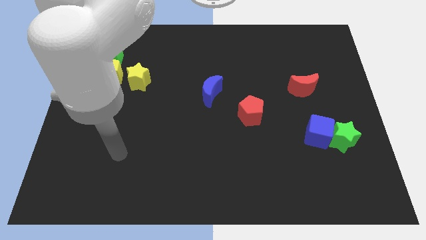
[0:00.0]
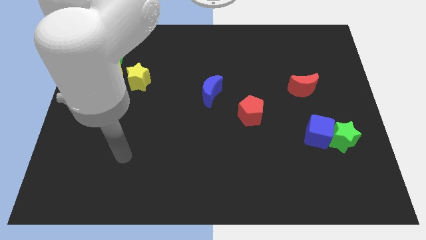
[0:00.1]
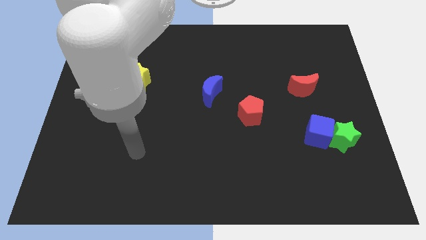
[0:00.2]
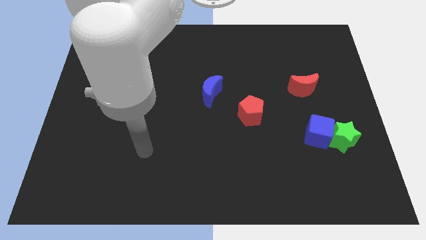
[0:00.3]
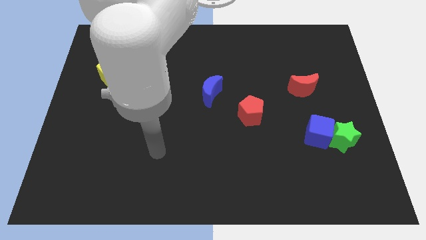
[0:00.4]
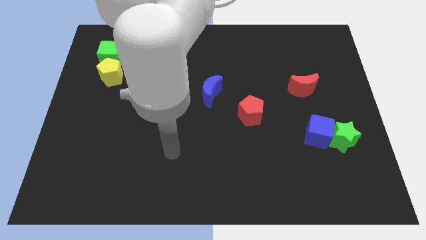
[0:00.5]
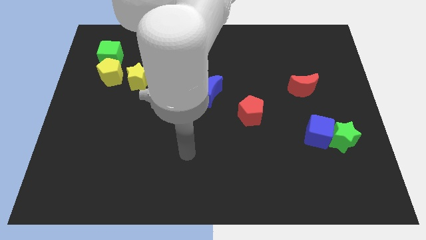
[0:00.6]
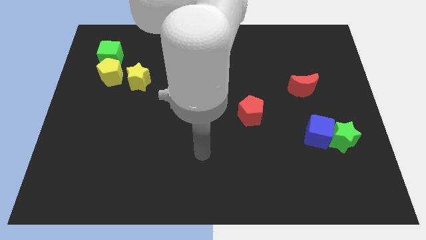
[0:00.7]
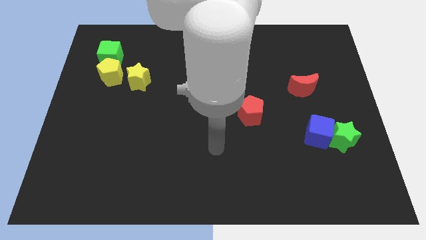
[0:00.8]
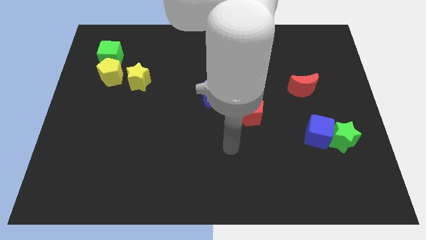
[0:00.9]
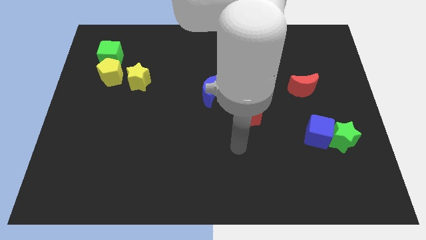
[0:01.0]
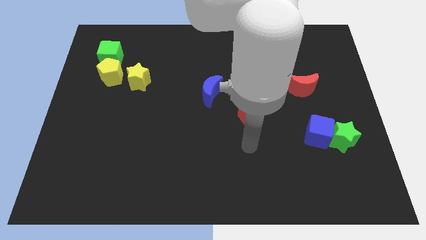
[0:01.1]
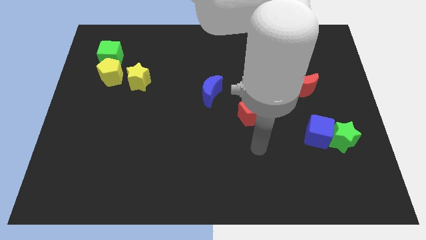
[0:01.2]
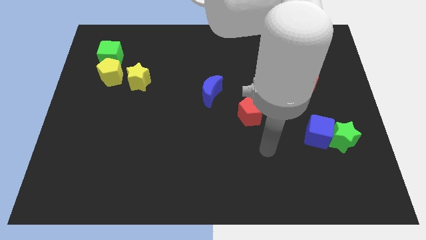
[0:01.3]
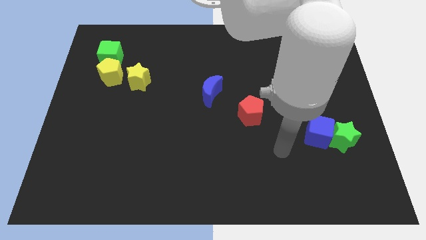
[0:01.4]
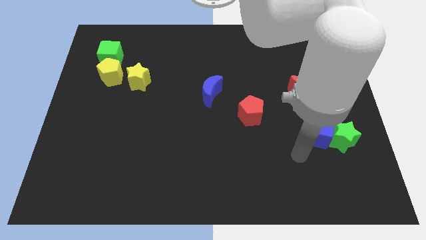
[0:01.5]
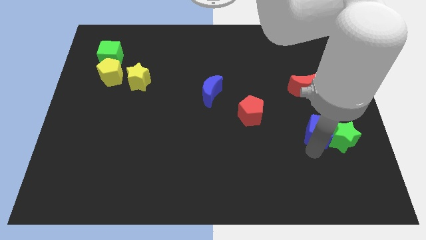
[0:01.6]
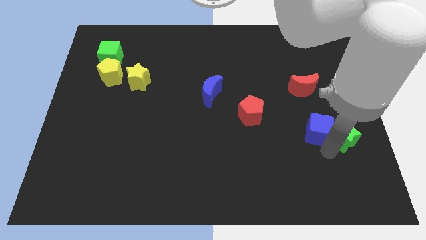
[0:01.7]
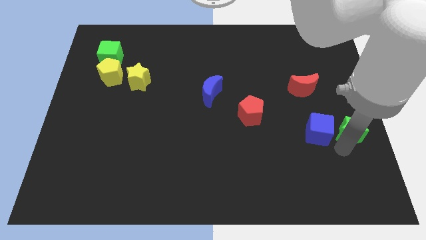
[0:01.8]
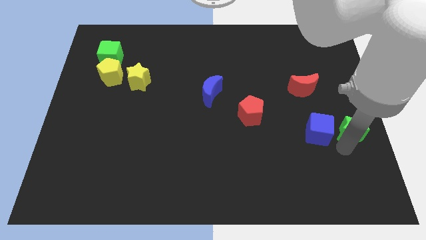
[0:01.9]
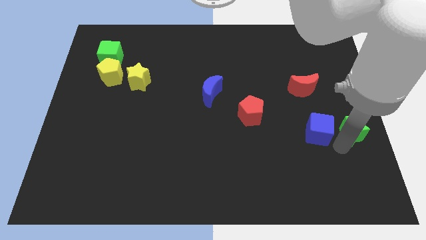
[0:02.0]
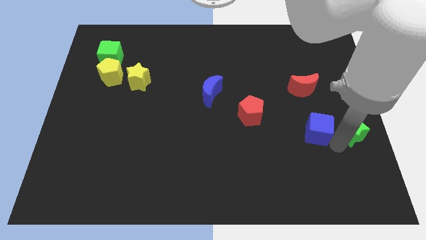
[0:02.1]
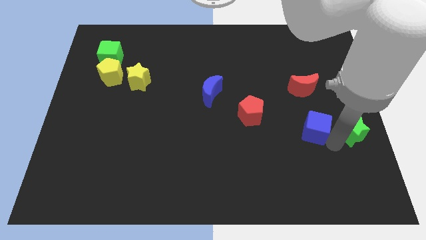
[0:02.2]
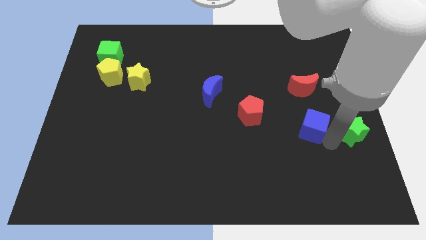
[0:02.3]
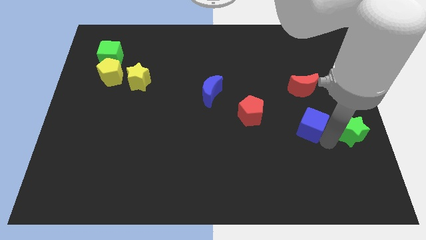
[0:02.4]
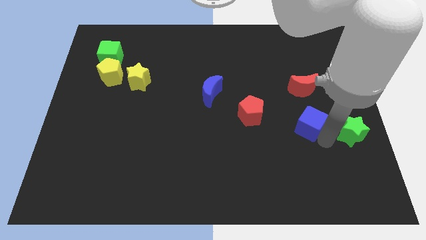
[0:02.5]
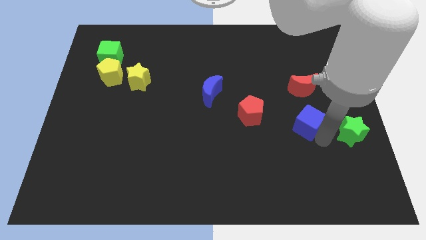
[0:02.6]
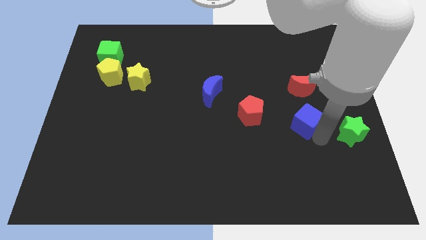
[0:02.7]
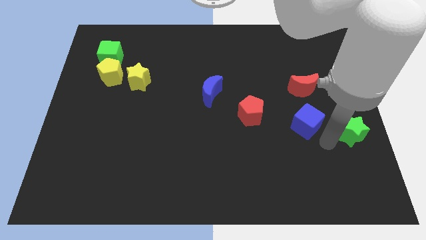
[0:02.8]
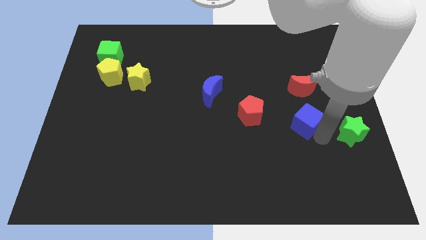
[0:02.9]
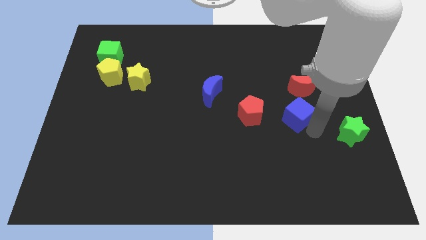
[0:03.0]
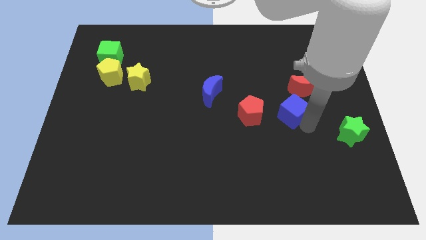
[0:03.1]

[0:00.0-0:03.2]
slightly slide the blue cube diagonally upwards and to the left

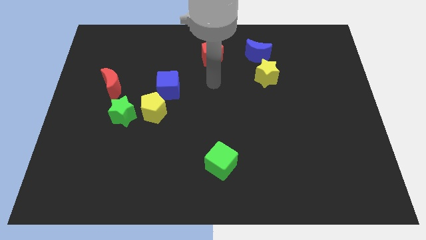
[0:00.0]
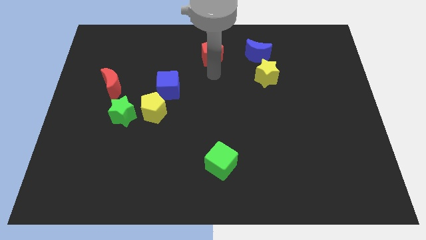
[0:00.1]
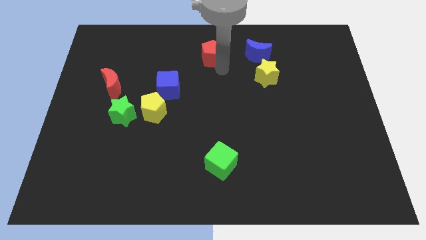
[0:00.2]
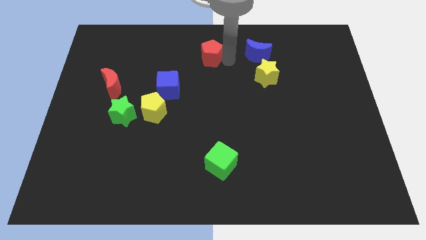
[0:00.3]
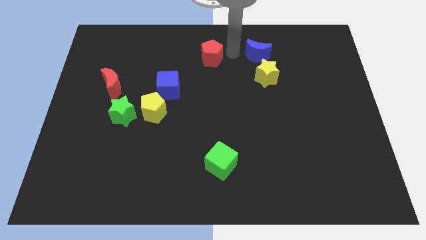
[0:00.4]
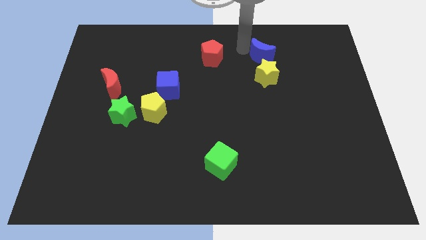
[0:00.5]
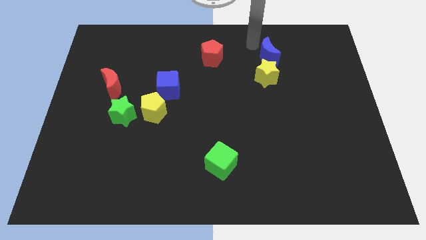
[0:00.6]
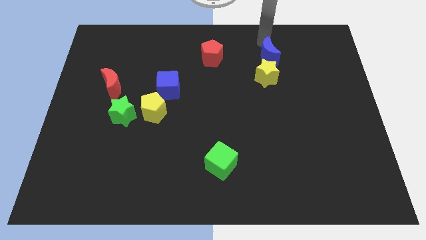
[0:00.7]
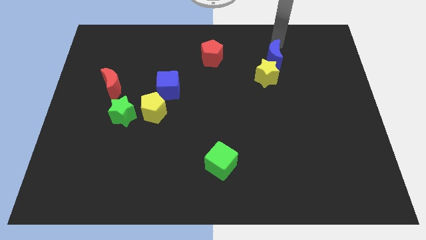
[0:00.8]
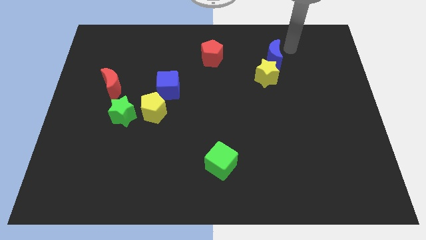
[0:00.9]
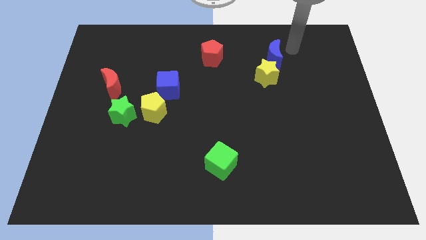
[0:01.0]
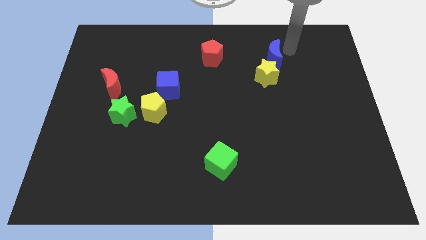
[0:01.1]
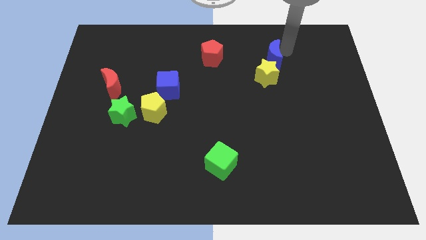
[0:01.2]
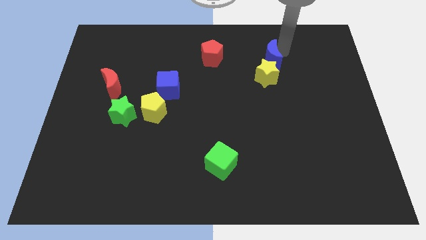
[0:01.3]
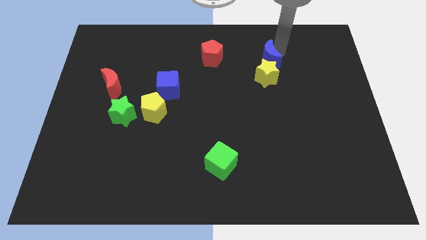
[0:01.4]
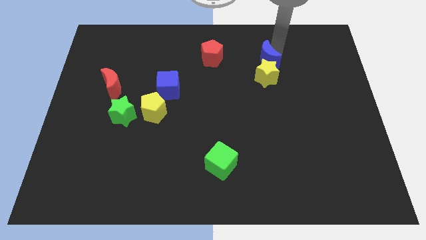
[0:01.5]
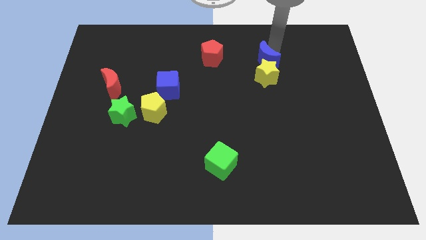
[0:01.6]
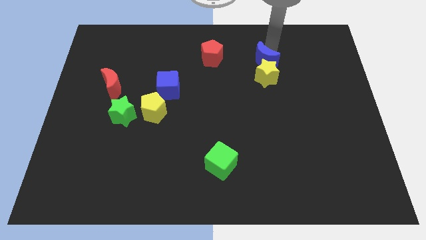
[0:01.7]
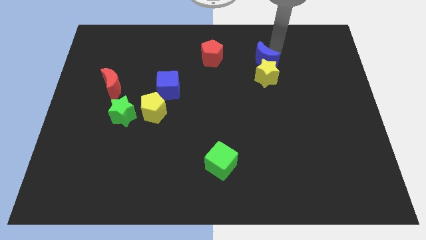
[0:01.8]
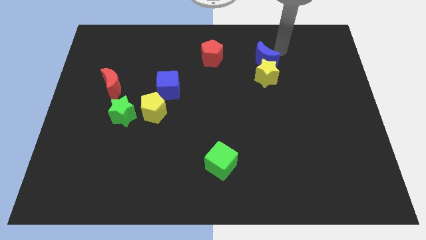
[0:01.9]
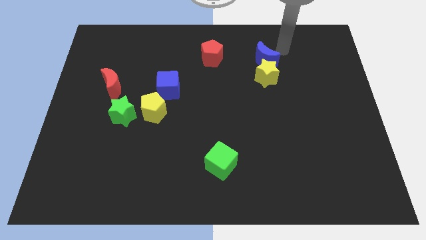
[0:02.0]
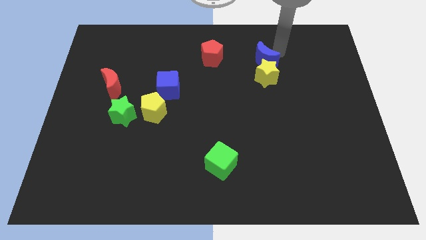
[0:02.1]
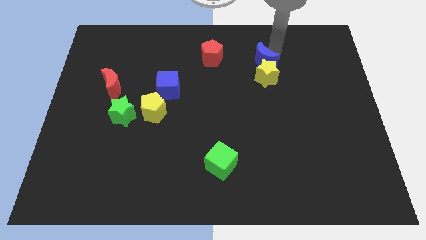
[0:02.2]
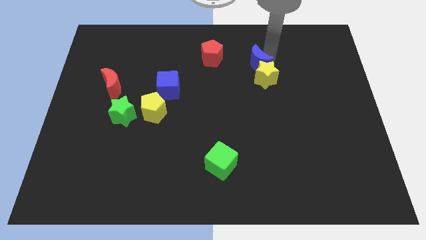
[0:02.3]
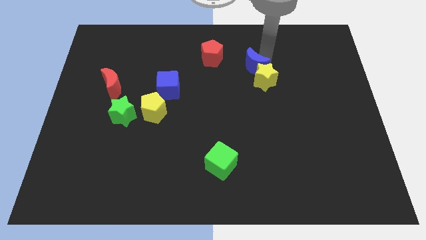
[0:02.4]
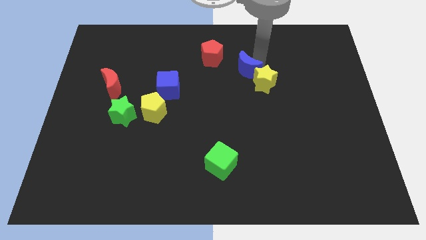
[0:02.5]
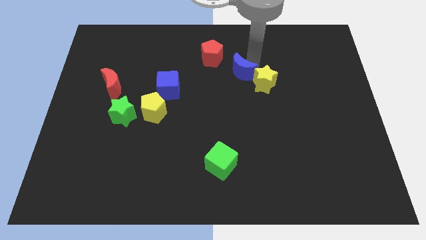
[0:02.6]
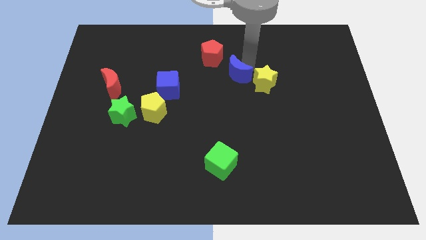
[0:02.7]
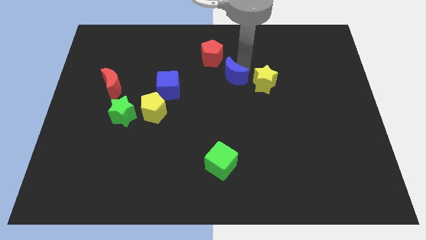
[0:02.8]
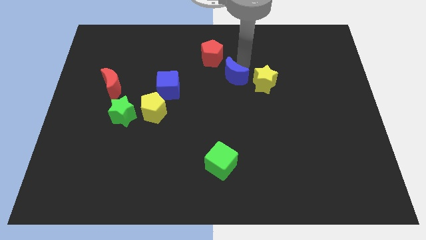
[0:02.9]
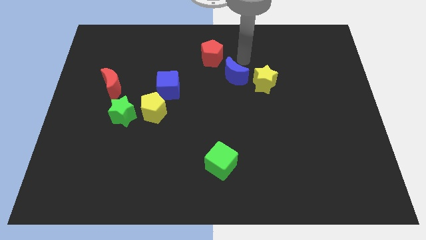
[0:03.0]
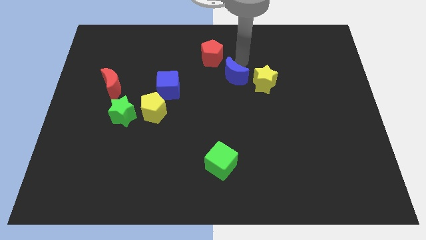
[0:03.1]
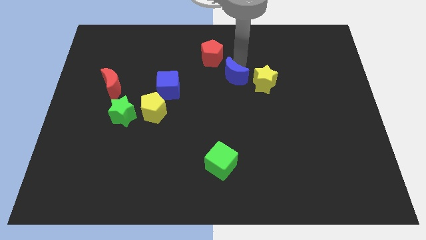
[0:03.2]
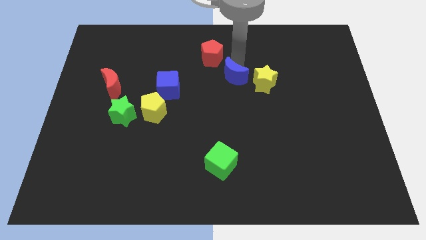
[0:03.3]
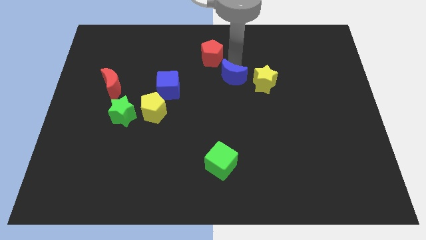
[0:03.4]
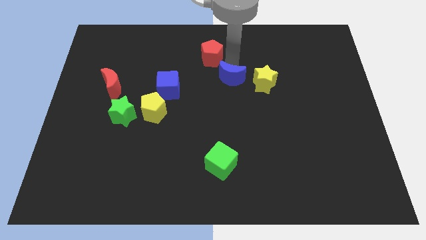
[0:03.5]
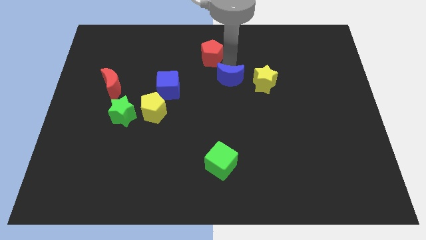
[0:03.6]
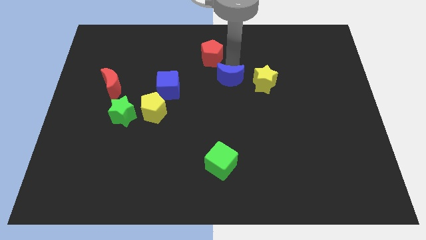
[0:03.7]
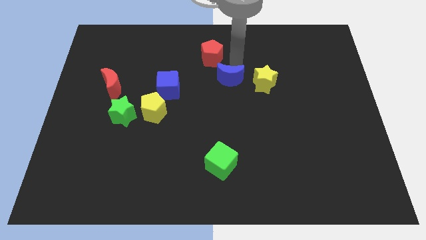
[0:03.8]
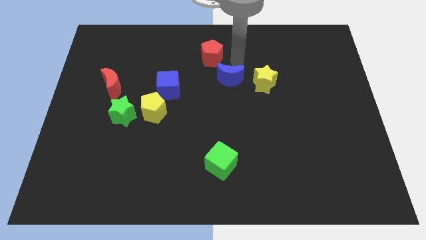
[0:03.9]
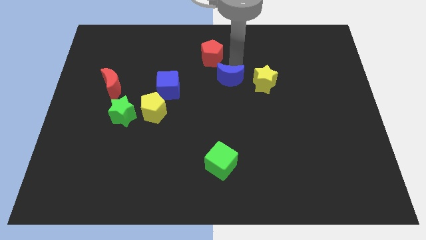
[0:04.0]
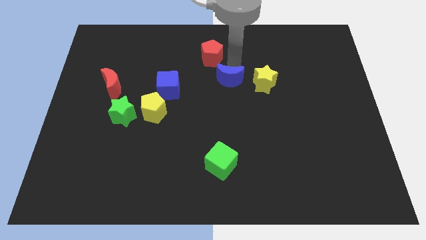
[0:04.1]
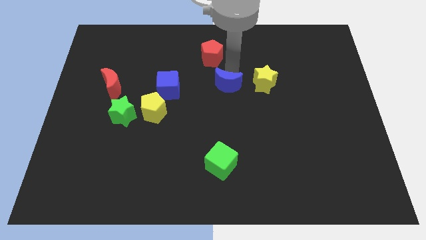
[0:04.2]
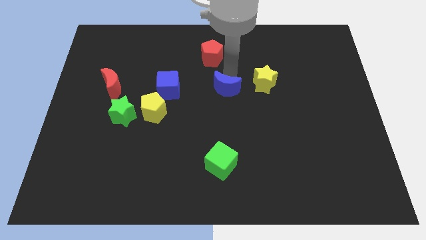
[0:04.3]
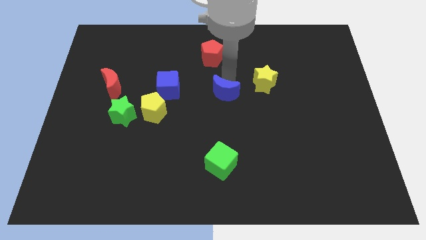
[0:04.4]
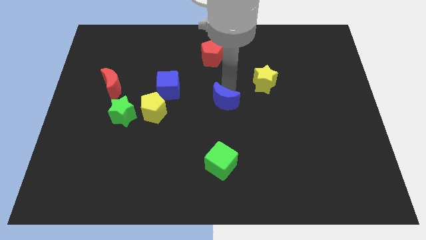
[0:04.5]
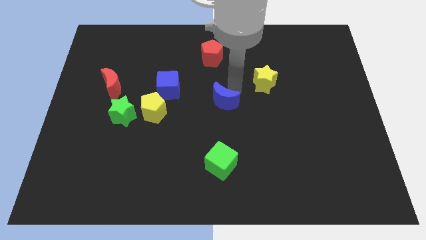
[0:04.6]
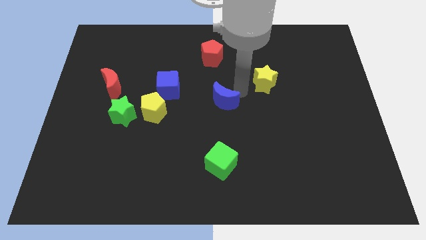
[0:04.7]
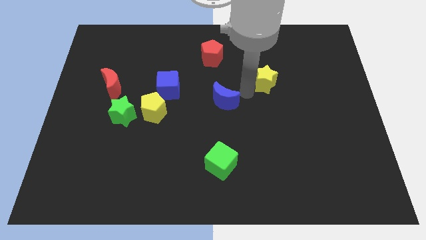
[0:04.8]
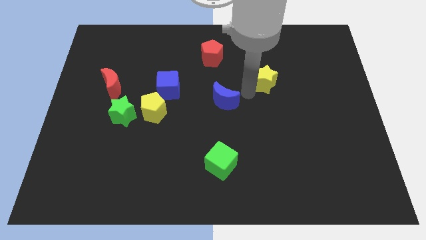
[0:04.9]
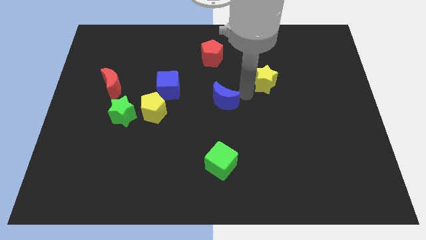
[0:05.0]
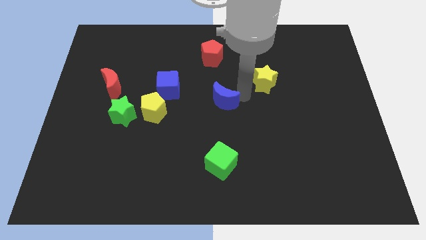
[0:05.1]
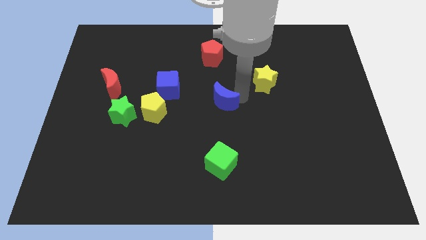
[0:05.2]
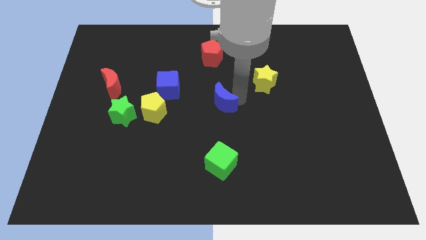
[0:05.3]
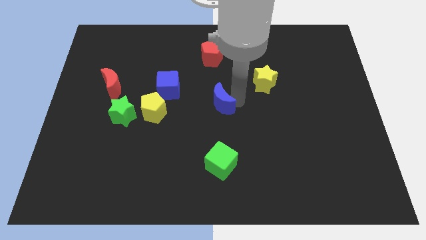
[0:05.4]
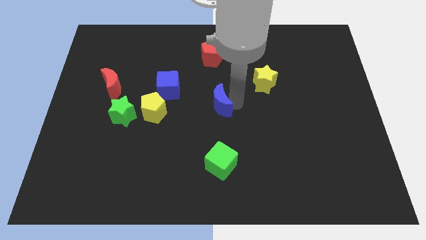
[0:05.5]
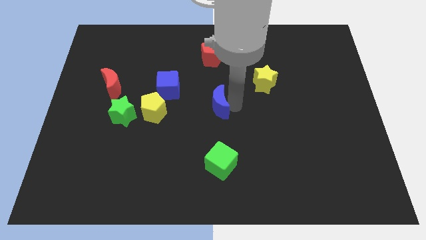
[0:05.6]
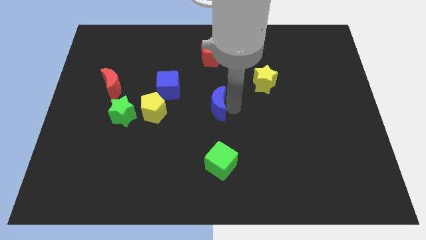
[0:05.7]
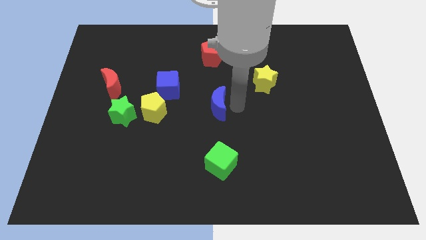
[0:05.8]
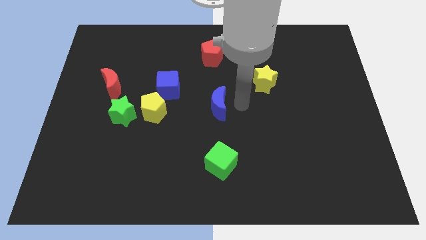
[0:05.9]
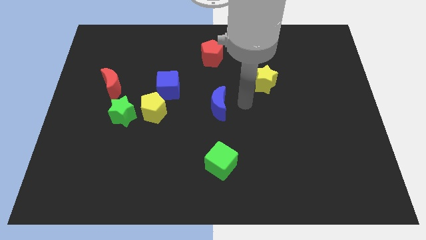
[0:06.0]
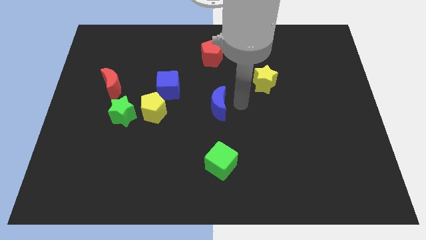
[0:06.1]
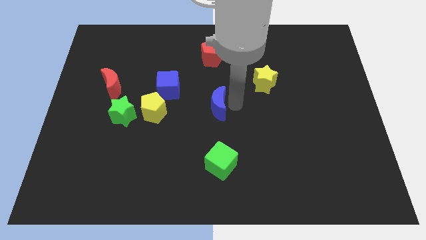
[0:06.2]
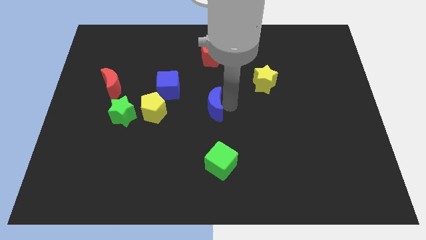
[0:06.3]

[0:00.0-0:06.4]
push the blue moon down and then to the left
